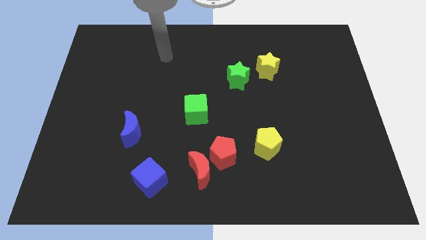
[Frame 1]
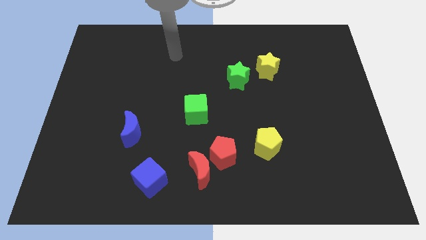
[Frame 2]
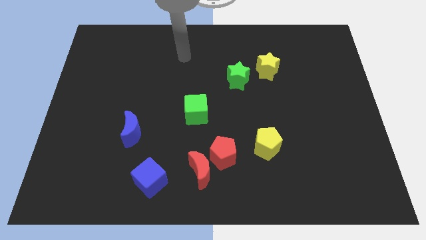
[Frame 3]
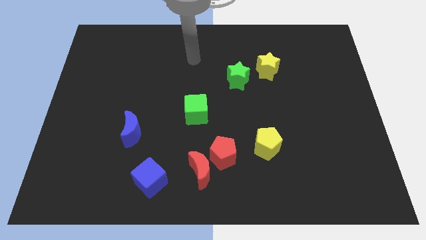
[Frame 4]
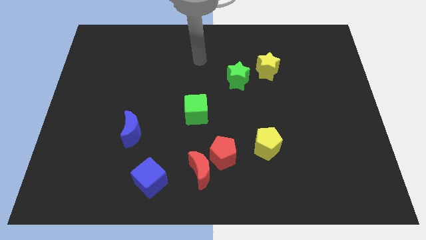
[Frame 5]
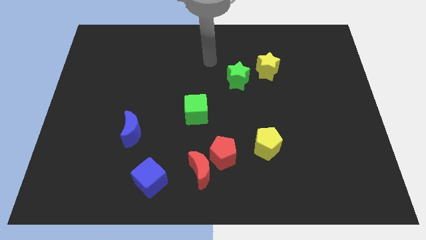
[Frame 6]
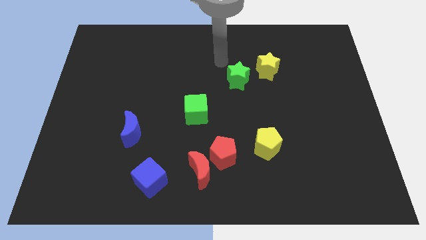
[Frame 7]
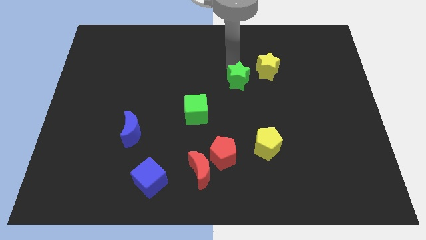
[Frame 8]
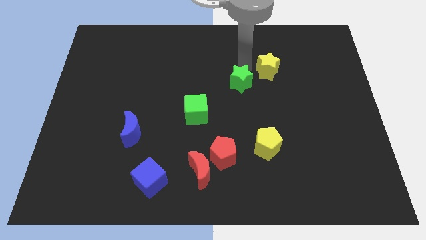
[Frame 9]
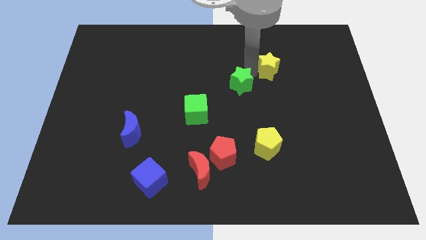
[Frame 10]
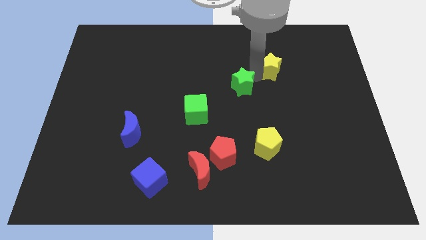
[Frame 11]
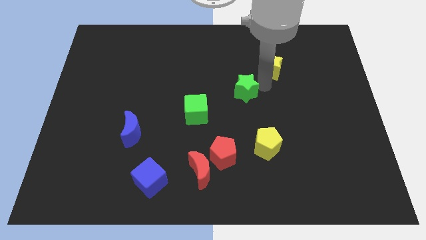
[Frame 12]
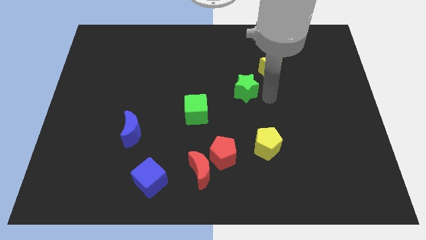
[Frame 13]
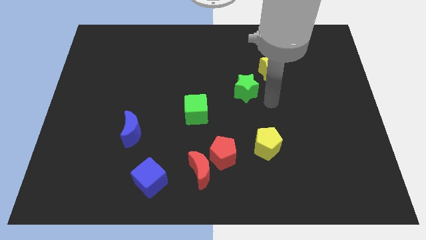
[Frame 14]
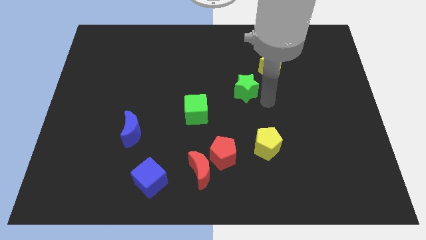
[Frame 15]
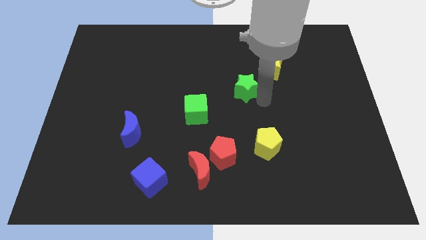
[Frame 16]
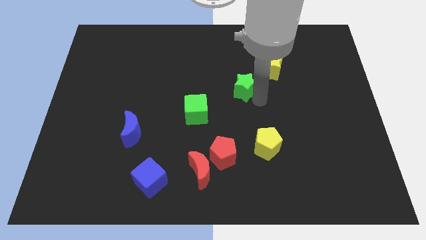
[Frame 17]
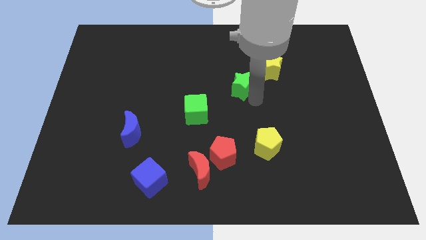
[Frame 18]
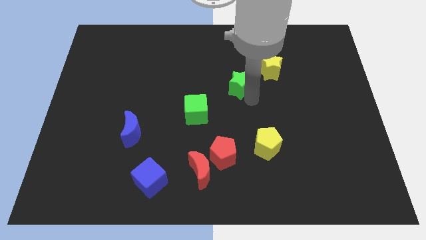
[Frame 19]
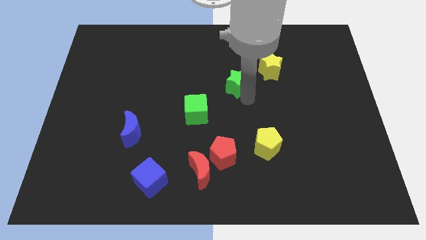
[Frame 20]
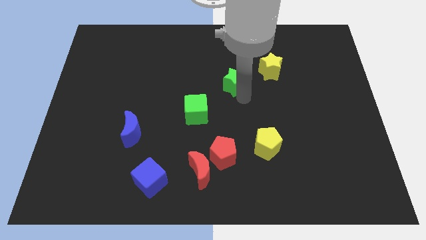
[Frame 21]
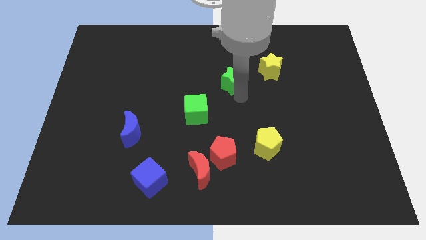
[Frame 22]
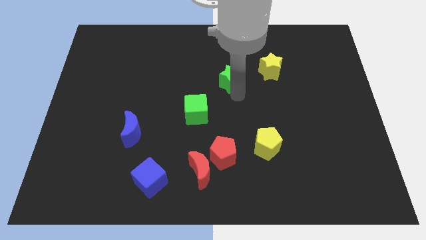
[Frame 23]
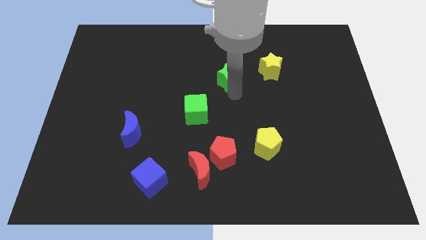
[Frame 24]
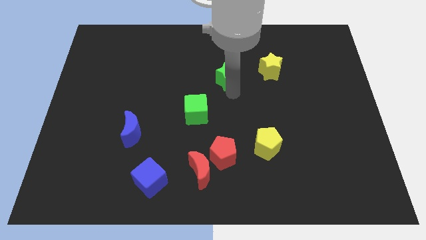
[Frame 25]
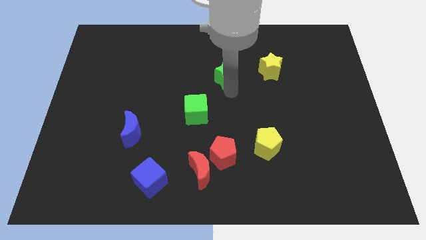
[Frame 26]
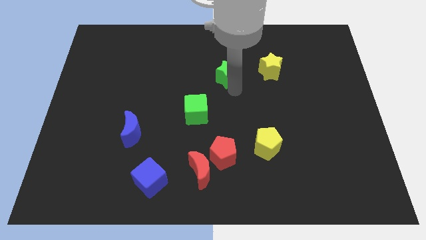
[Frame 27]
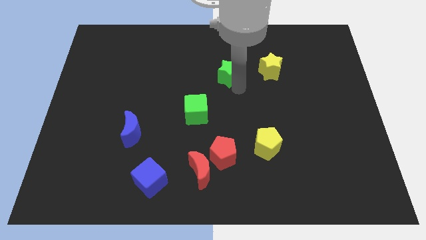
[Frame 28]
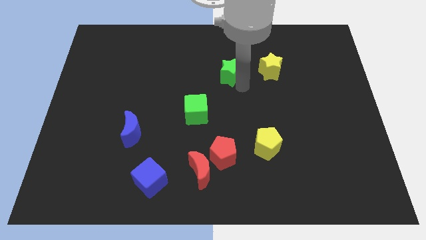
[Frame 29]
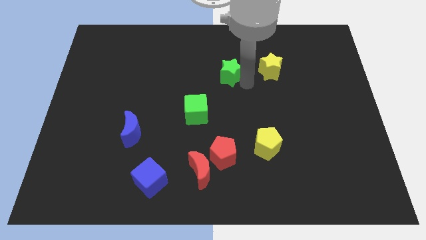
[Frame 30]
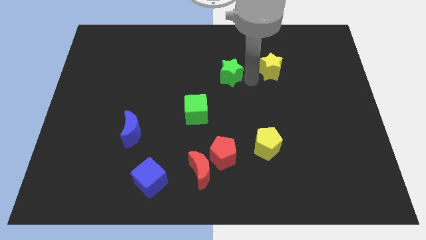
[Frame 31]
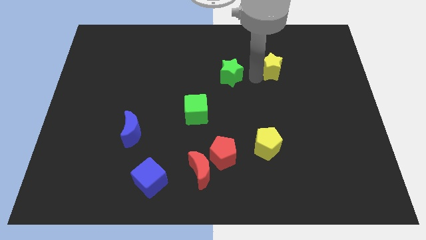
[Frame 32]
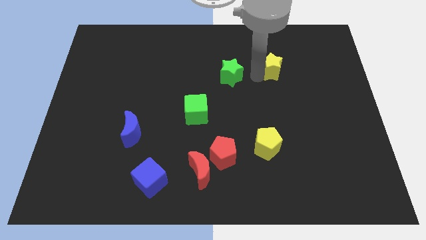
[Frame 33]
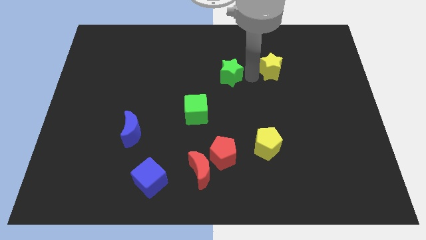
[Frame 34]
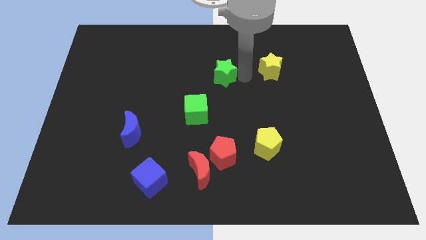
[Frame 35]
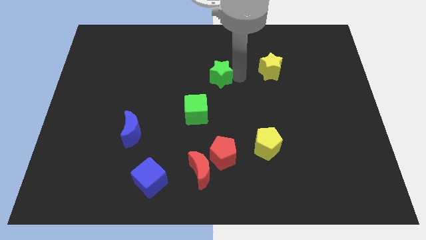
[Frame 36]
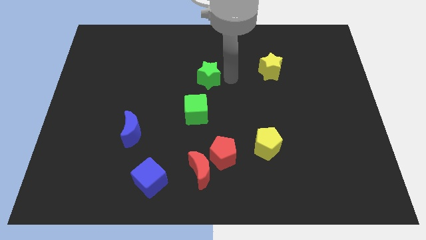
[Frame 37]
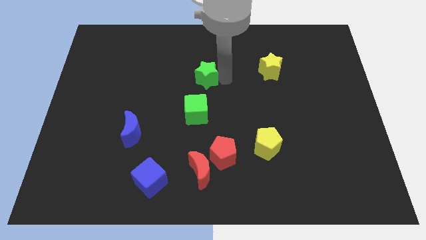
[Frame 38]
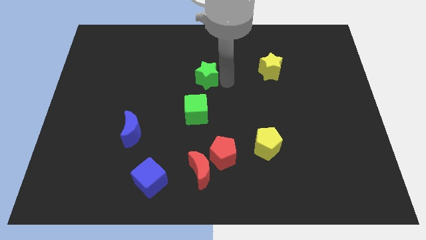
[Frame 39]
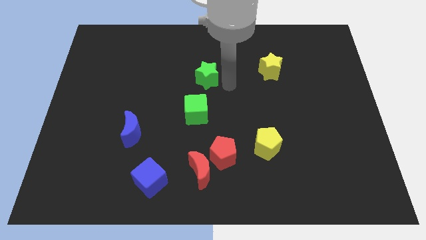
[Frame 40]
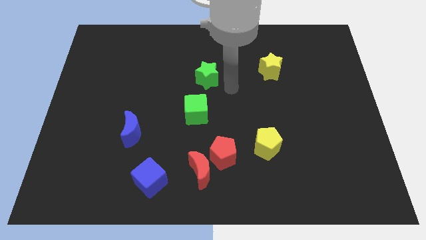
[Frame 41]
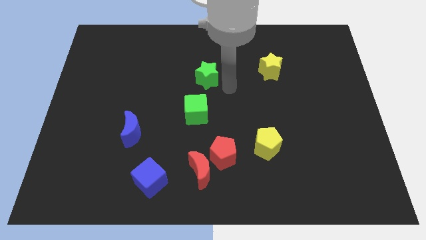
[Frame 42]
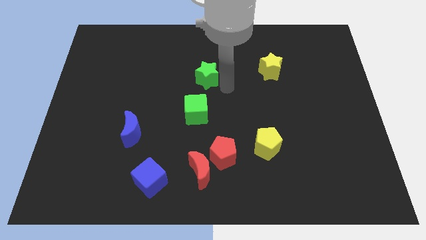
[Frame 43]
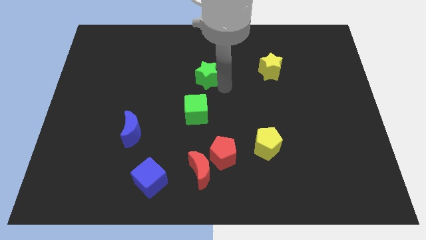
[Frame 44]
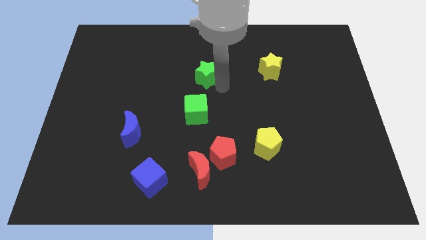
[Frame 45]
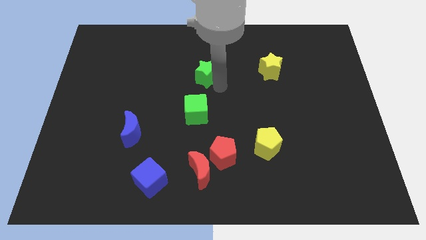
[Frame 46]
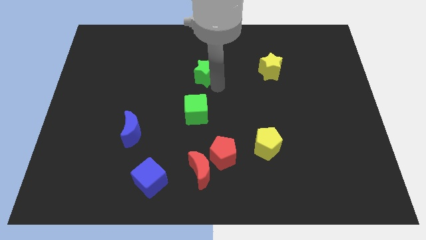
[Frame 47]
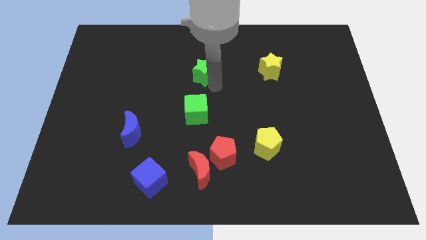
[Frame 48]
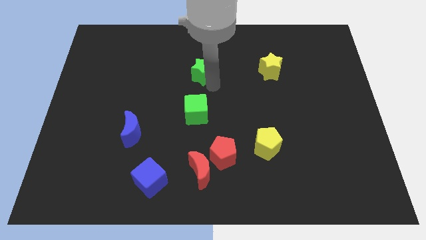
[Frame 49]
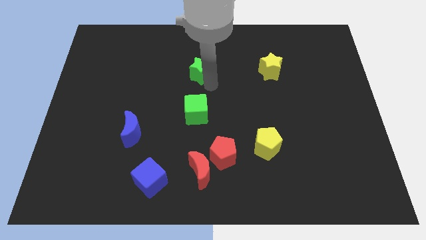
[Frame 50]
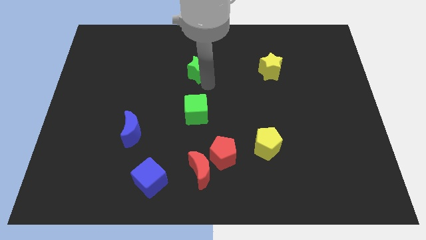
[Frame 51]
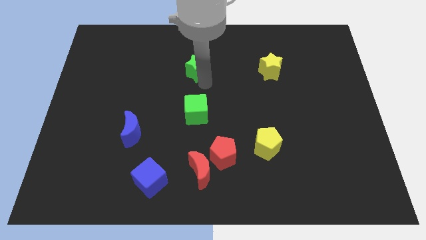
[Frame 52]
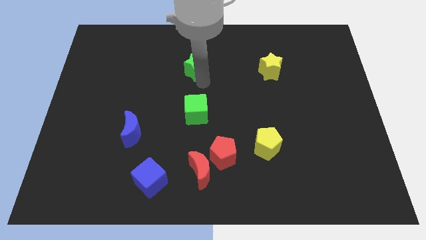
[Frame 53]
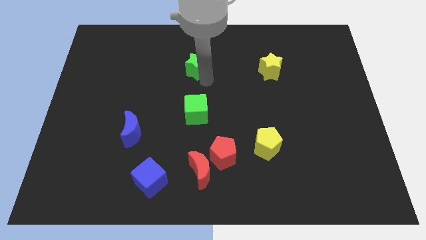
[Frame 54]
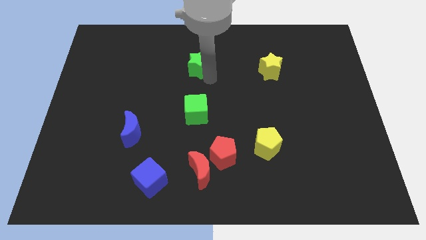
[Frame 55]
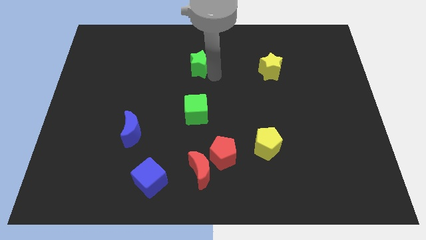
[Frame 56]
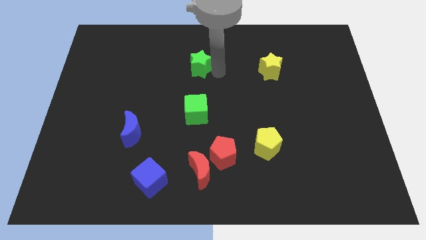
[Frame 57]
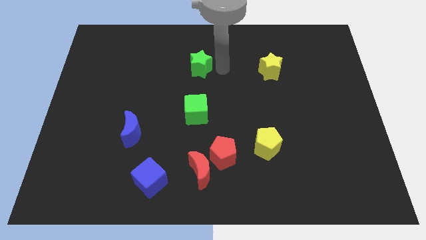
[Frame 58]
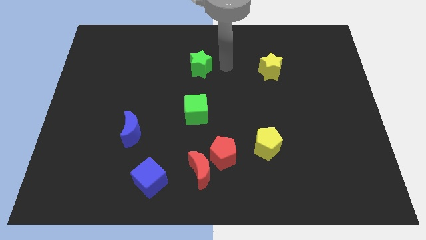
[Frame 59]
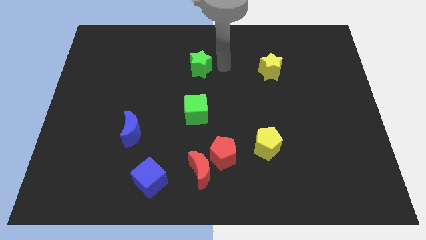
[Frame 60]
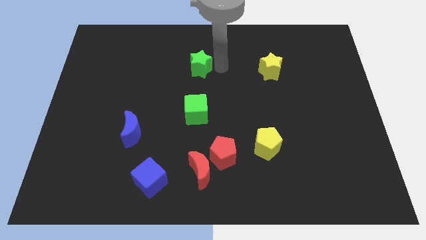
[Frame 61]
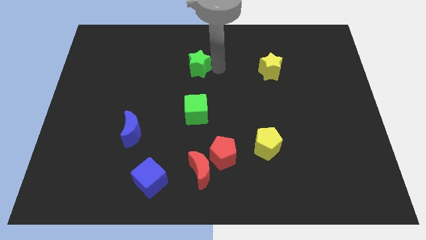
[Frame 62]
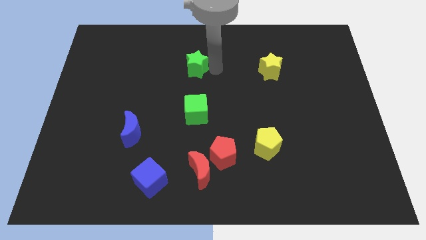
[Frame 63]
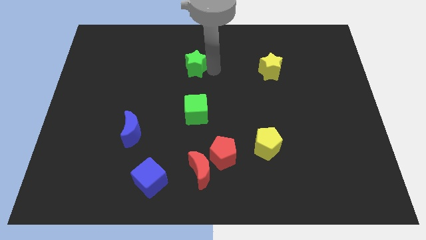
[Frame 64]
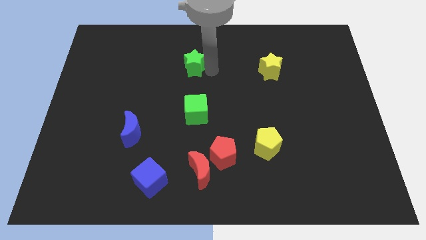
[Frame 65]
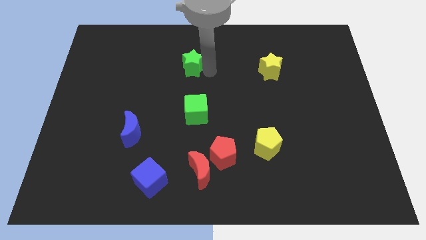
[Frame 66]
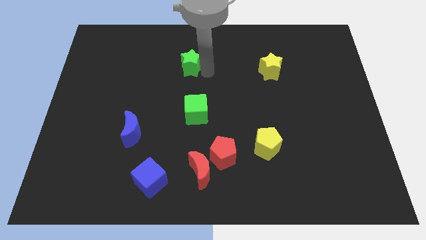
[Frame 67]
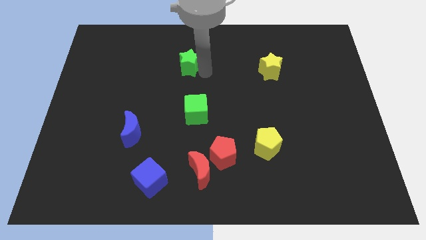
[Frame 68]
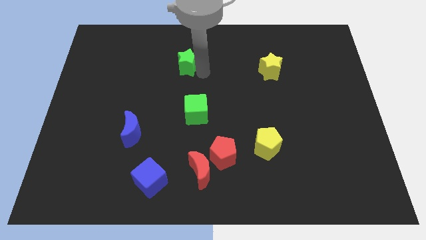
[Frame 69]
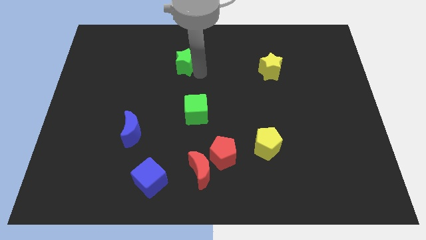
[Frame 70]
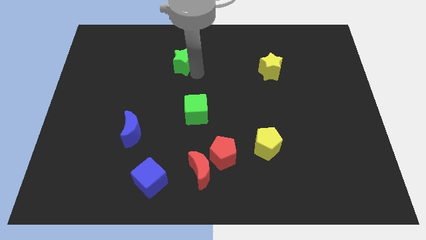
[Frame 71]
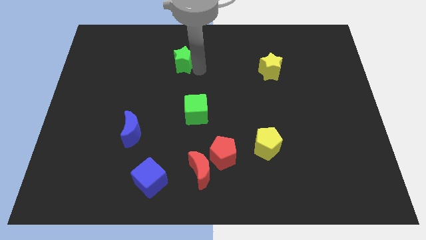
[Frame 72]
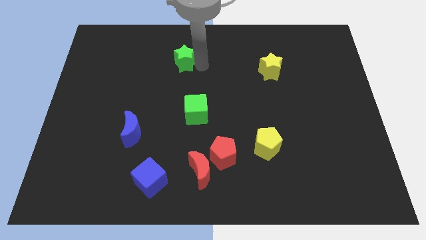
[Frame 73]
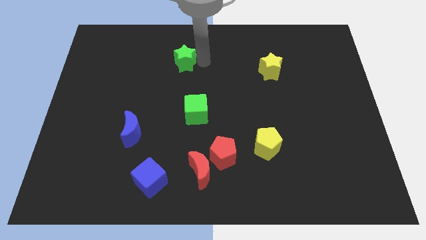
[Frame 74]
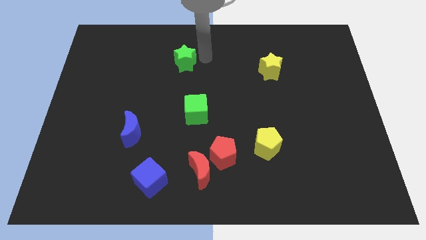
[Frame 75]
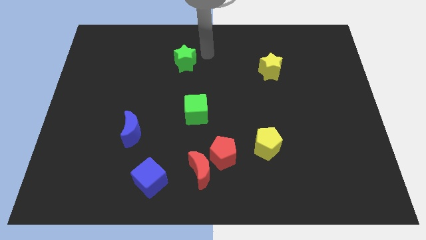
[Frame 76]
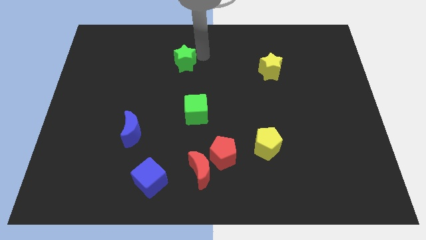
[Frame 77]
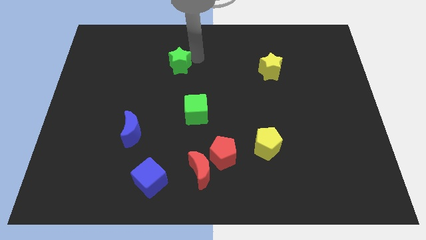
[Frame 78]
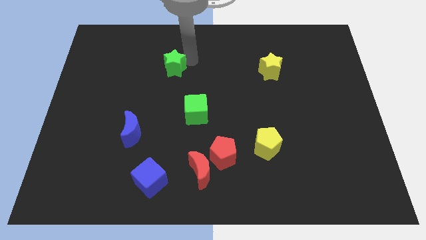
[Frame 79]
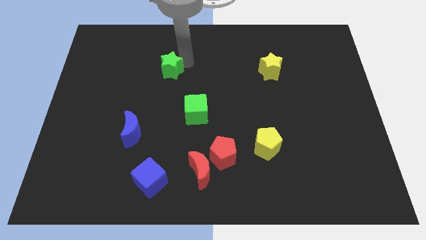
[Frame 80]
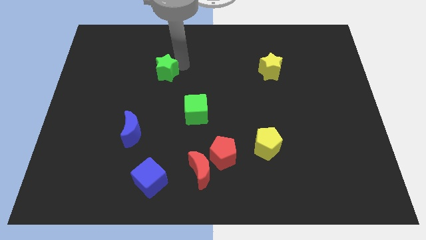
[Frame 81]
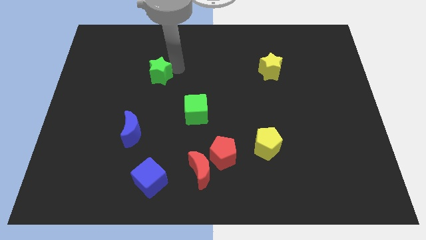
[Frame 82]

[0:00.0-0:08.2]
slide the green star left
